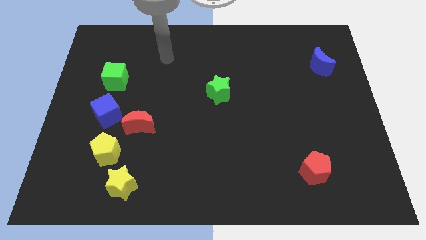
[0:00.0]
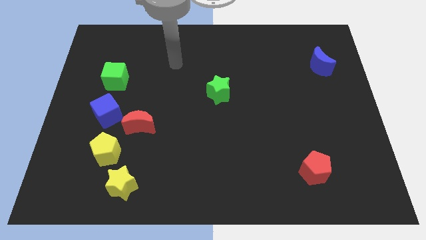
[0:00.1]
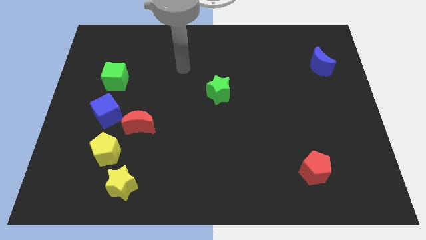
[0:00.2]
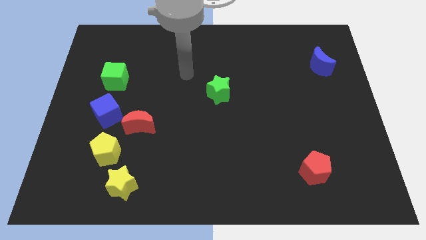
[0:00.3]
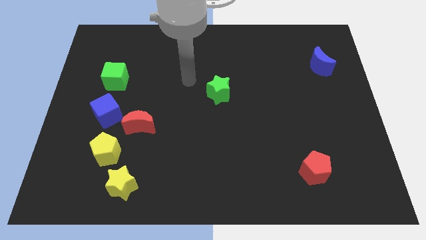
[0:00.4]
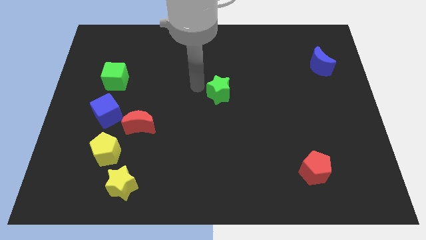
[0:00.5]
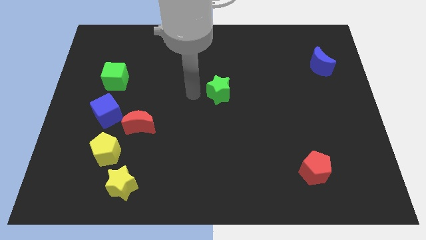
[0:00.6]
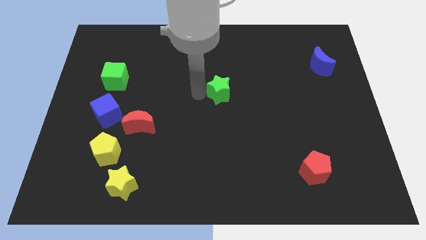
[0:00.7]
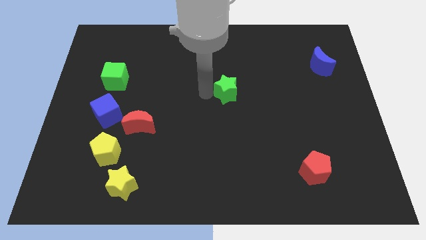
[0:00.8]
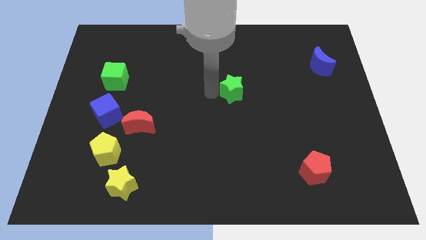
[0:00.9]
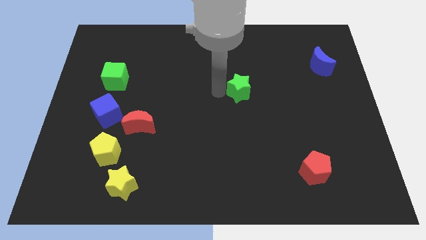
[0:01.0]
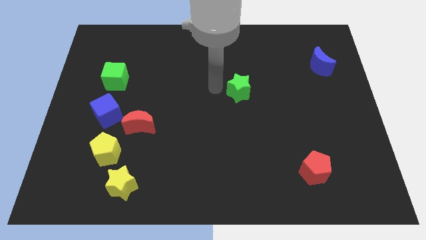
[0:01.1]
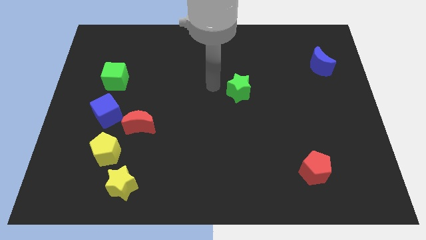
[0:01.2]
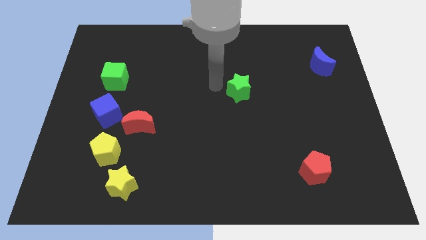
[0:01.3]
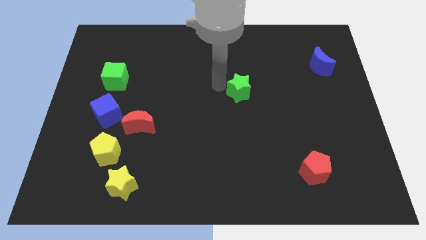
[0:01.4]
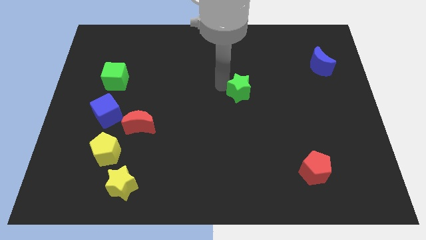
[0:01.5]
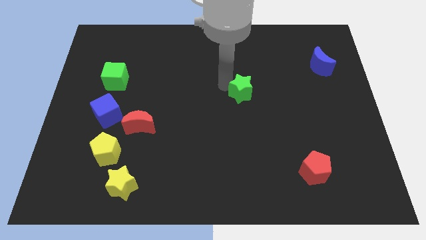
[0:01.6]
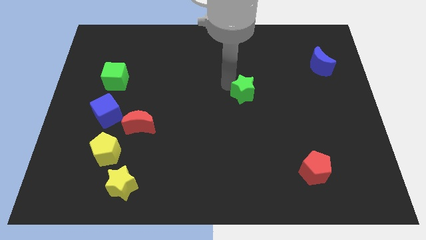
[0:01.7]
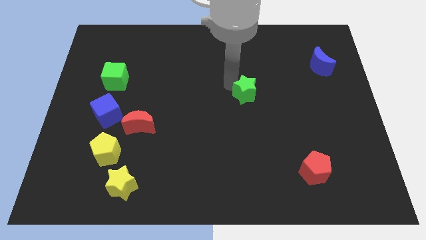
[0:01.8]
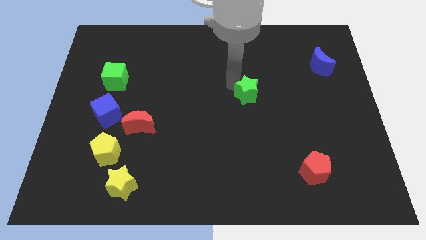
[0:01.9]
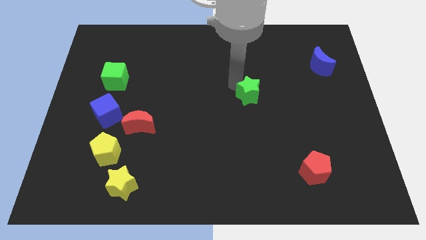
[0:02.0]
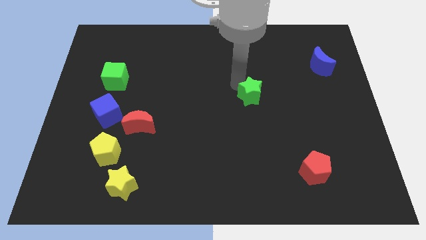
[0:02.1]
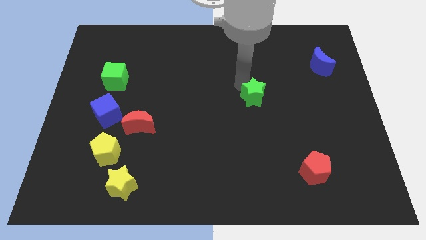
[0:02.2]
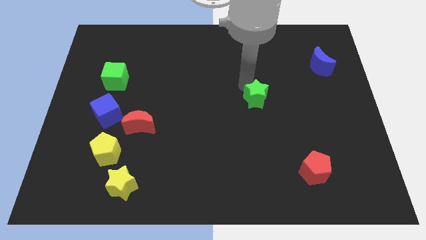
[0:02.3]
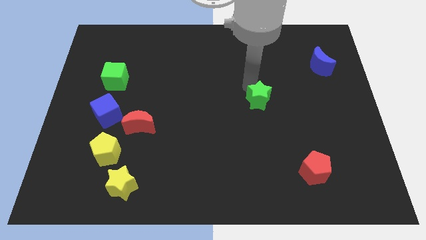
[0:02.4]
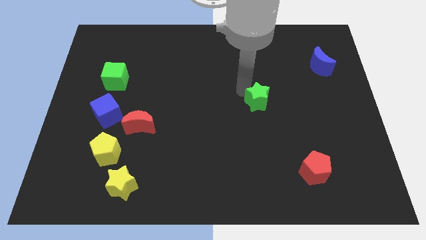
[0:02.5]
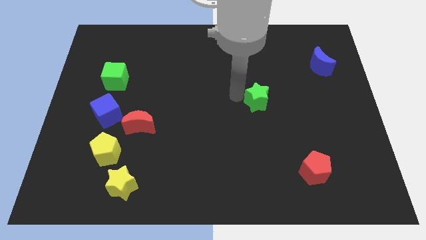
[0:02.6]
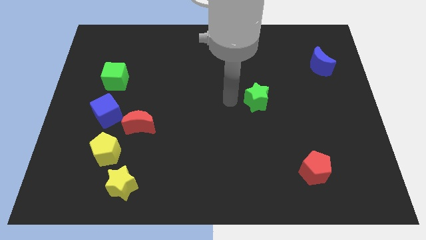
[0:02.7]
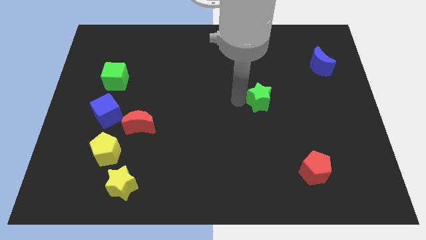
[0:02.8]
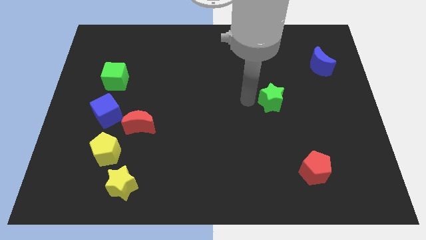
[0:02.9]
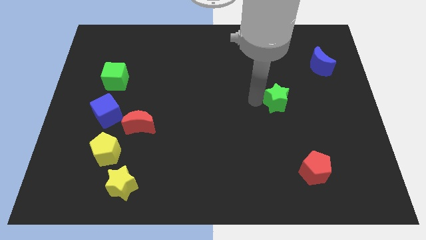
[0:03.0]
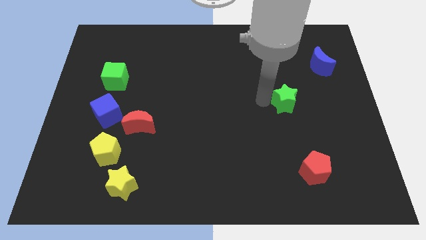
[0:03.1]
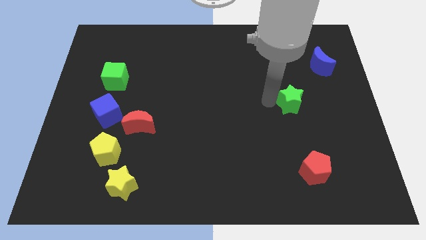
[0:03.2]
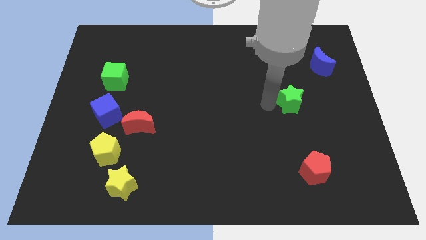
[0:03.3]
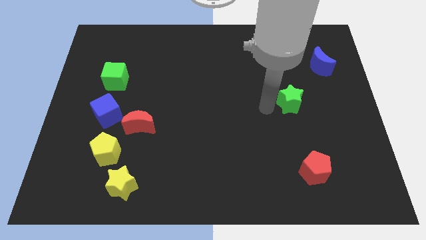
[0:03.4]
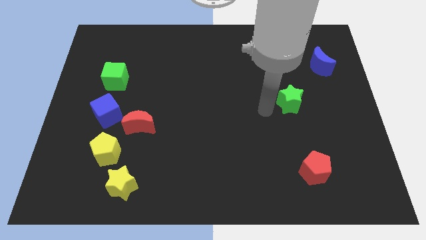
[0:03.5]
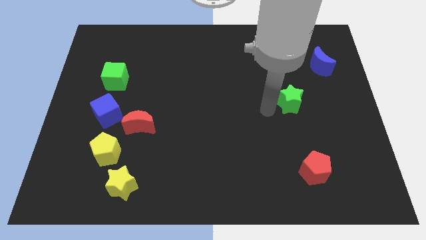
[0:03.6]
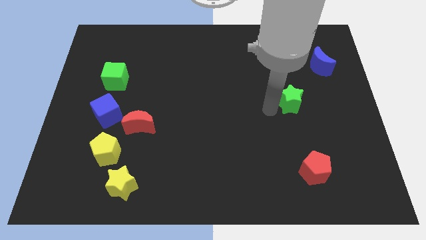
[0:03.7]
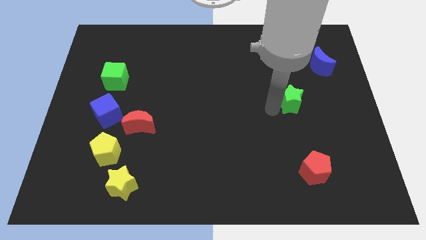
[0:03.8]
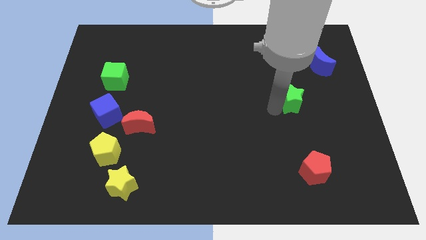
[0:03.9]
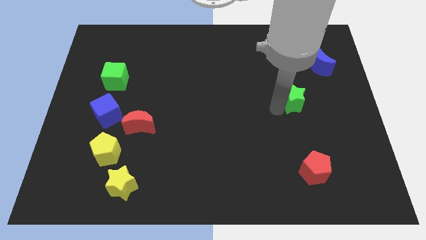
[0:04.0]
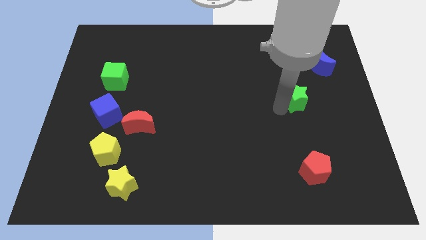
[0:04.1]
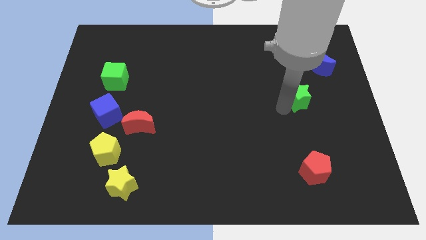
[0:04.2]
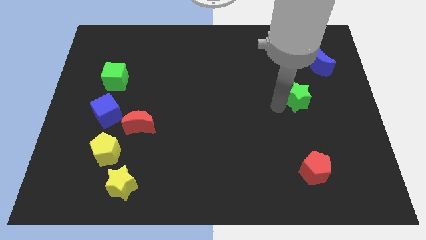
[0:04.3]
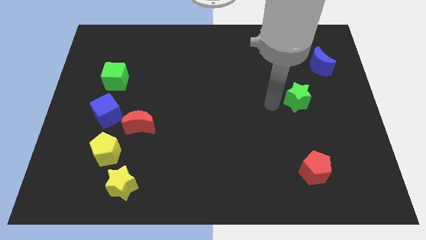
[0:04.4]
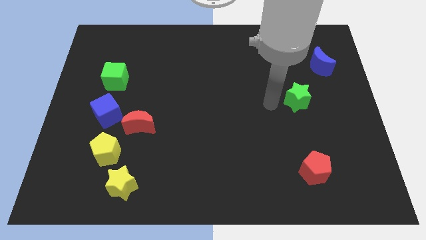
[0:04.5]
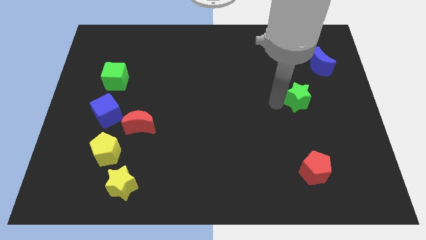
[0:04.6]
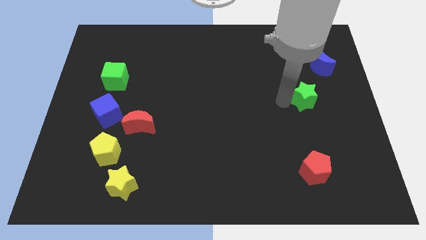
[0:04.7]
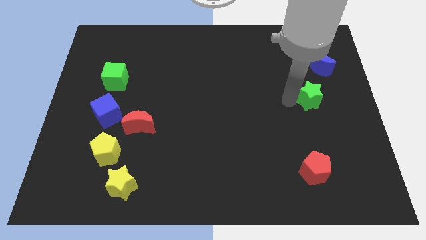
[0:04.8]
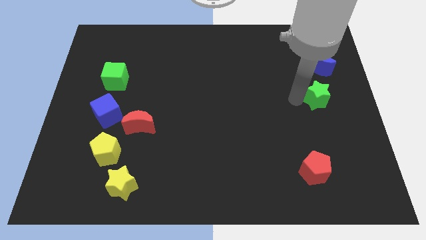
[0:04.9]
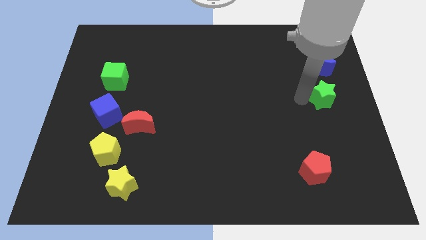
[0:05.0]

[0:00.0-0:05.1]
move the green star to the center right

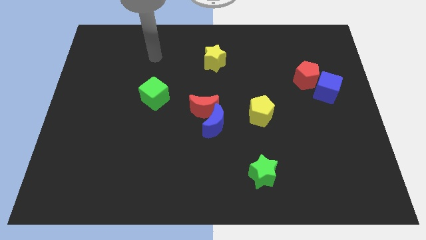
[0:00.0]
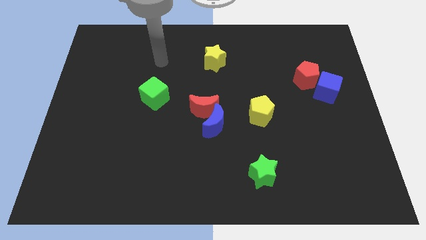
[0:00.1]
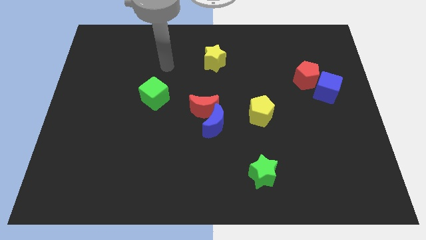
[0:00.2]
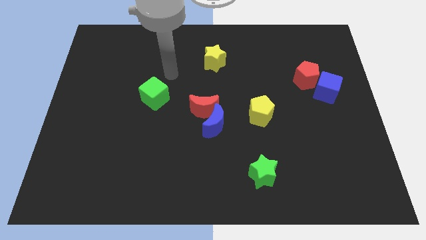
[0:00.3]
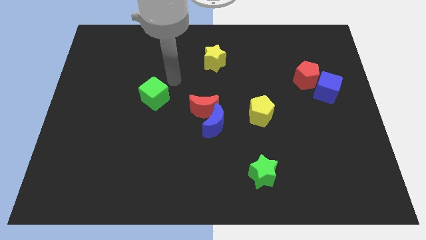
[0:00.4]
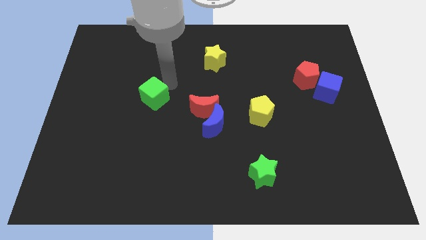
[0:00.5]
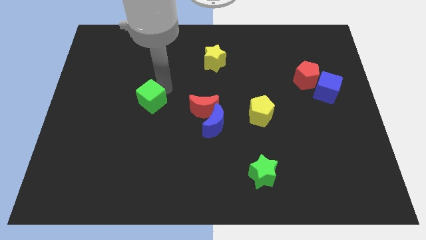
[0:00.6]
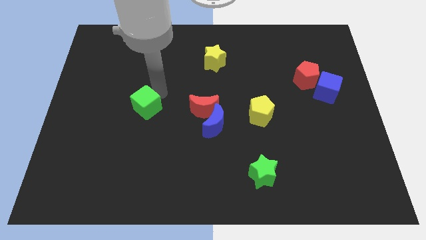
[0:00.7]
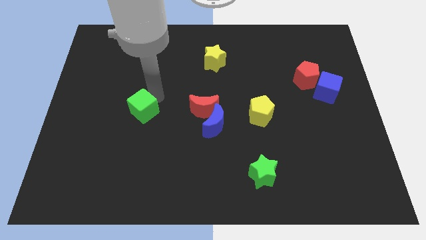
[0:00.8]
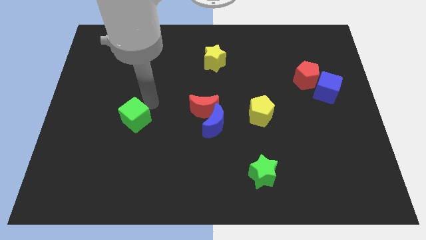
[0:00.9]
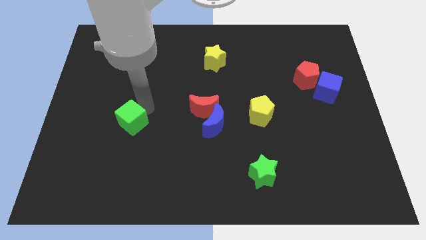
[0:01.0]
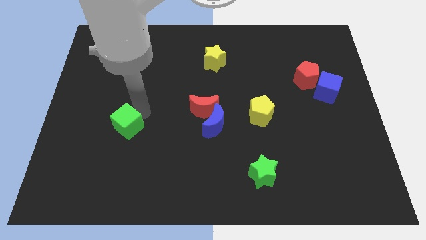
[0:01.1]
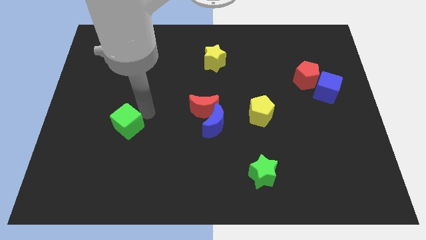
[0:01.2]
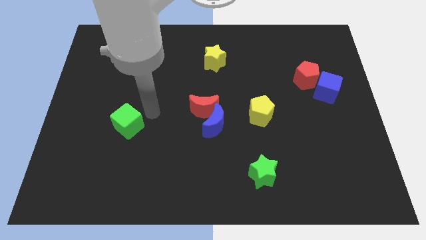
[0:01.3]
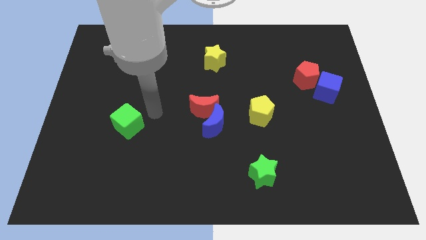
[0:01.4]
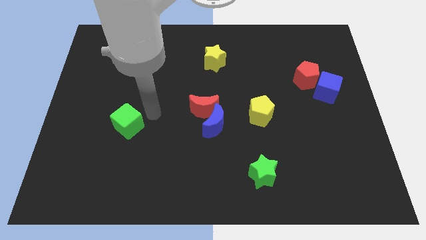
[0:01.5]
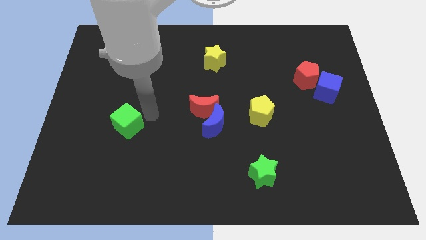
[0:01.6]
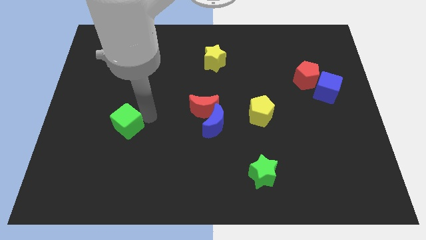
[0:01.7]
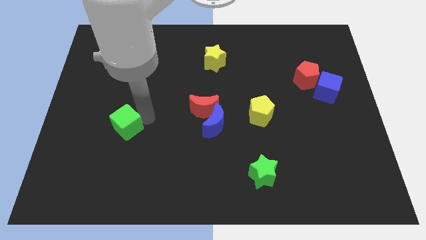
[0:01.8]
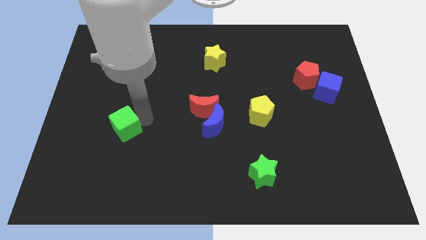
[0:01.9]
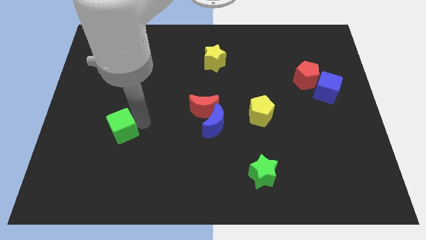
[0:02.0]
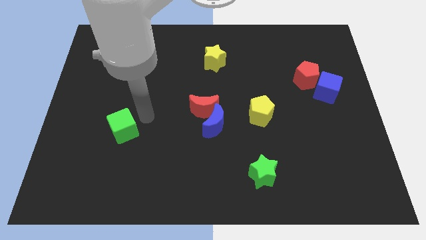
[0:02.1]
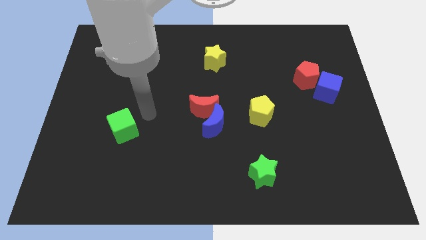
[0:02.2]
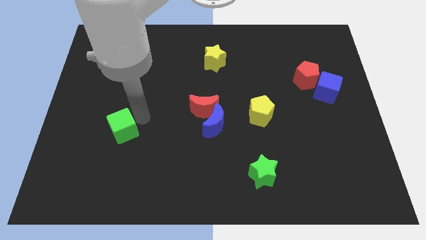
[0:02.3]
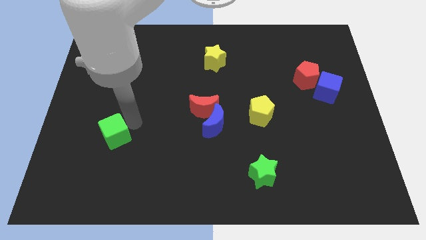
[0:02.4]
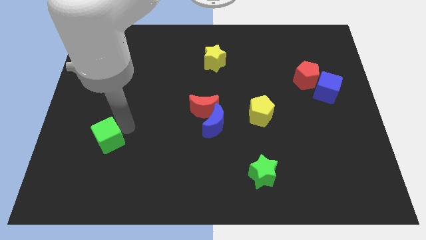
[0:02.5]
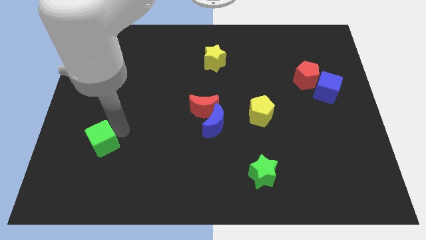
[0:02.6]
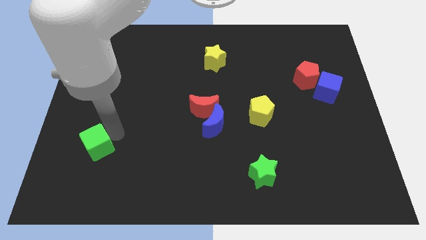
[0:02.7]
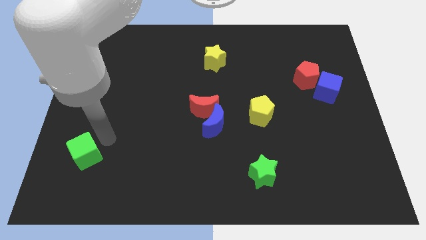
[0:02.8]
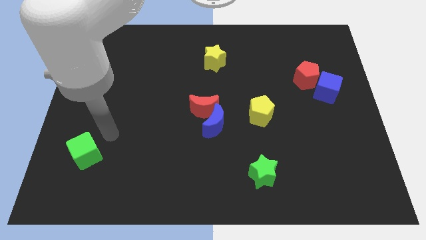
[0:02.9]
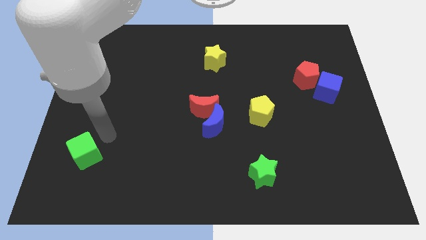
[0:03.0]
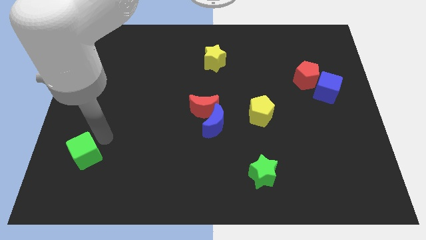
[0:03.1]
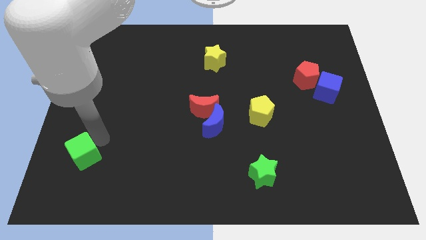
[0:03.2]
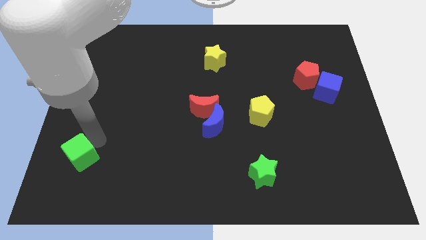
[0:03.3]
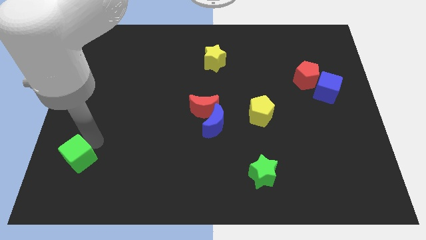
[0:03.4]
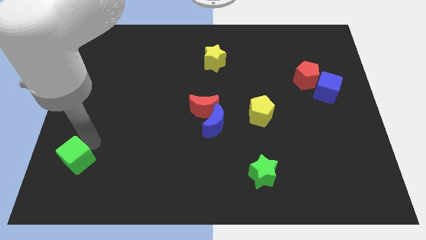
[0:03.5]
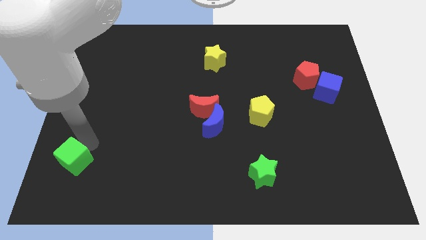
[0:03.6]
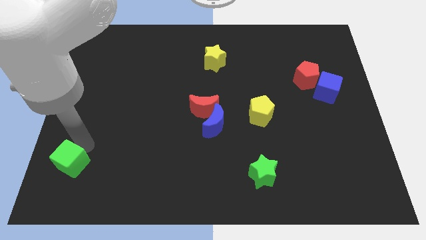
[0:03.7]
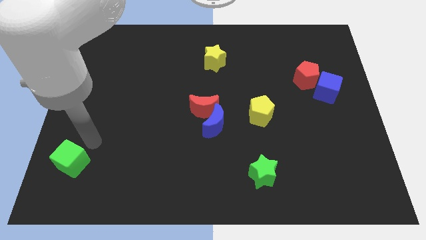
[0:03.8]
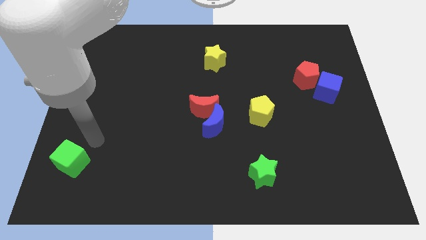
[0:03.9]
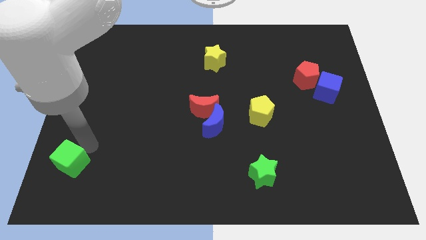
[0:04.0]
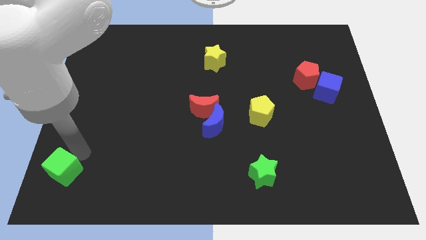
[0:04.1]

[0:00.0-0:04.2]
move the green cube to the lower left corner
